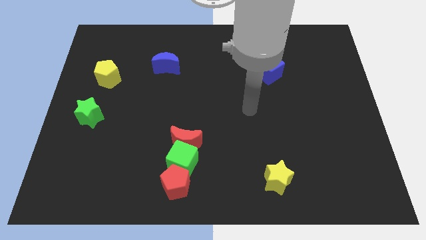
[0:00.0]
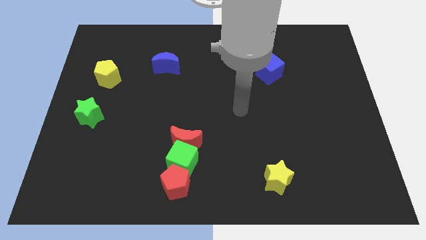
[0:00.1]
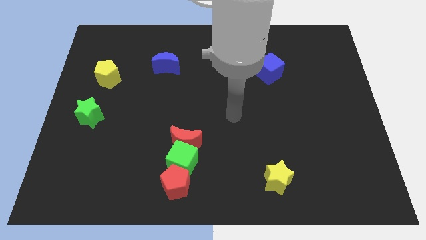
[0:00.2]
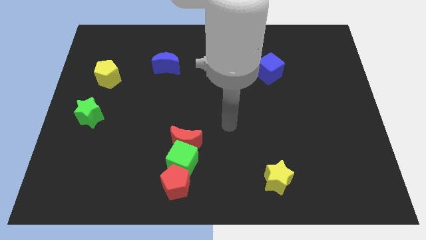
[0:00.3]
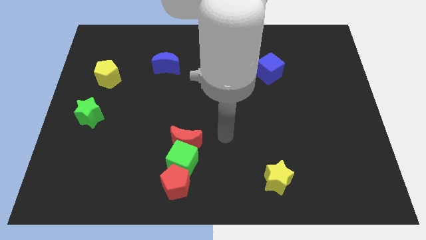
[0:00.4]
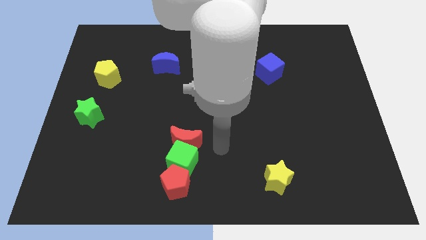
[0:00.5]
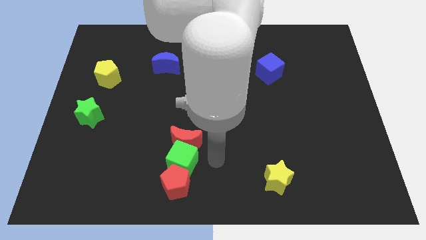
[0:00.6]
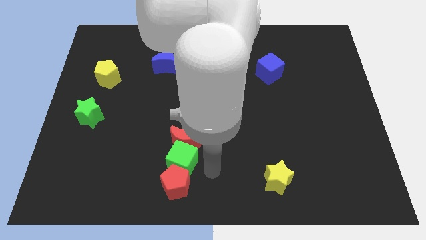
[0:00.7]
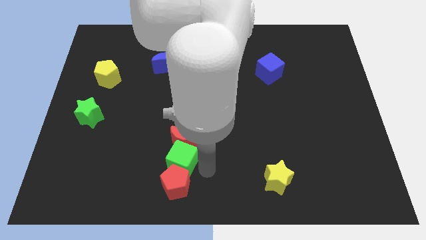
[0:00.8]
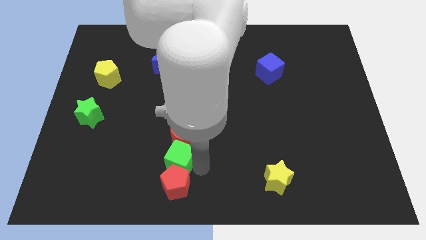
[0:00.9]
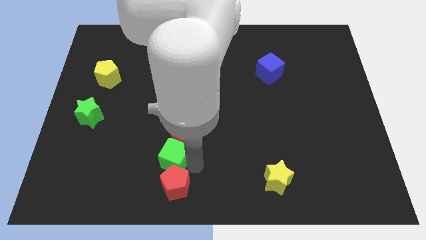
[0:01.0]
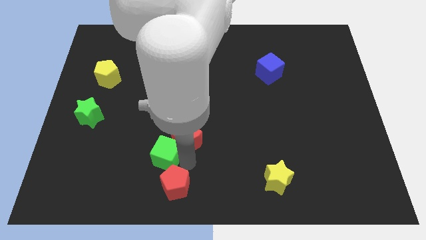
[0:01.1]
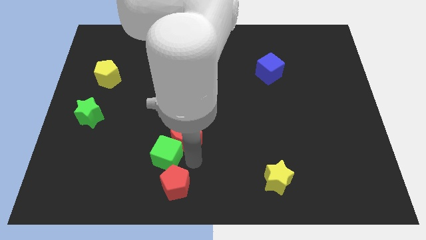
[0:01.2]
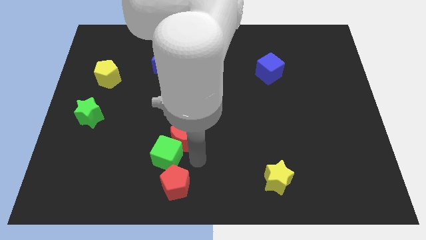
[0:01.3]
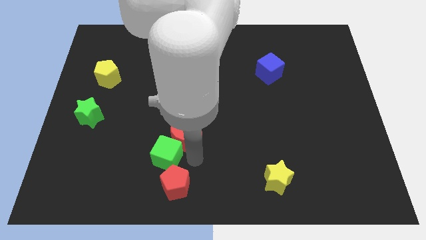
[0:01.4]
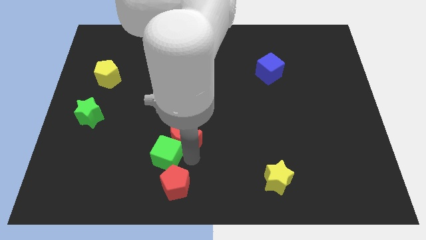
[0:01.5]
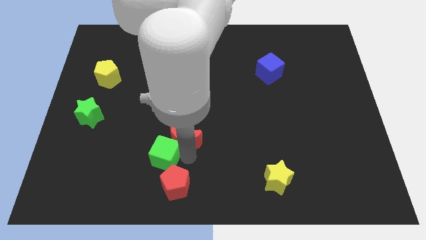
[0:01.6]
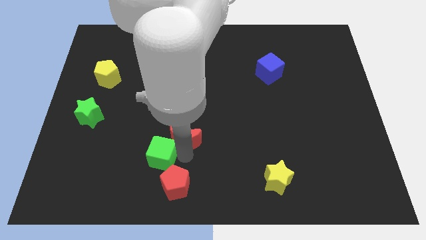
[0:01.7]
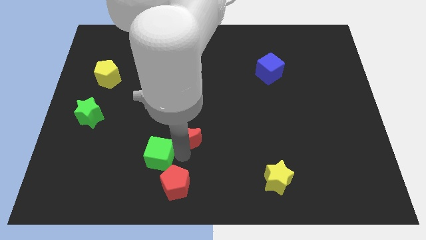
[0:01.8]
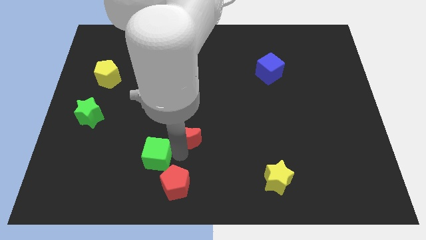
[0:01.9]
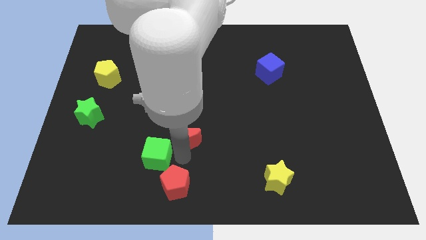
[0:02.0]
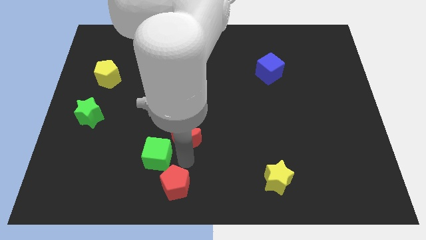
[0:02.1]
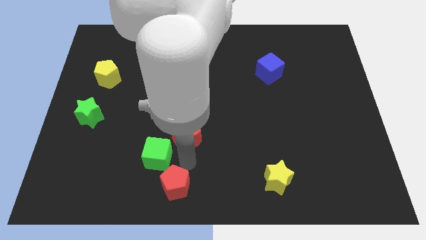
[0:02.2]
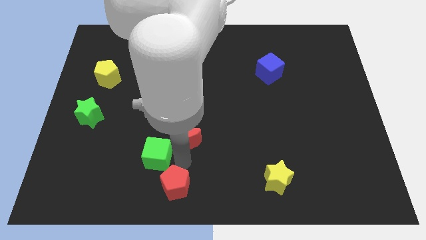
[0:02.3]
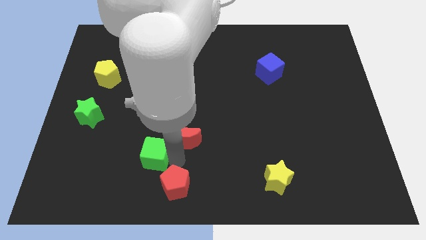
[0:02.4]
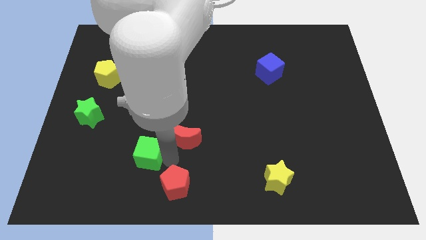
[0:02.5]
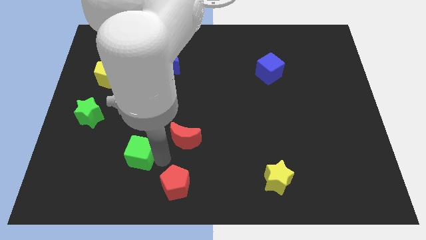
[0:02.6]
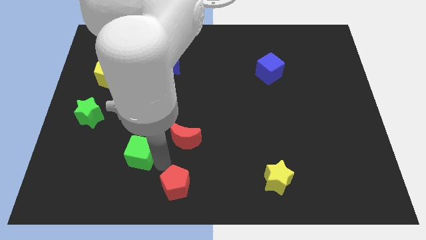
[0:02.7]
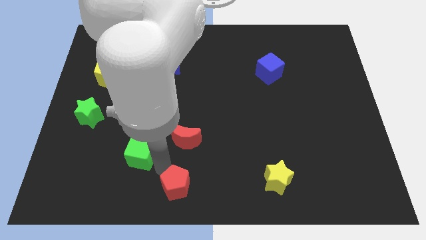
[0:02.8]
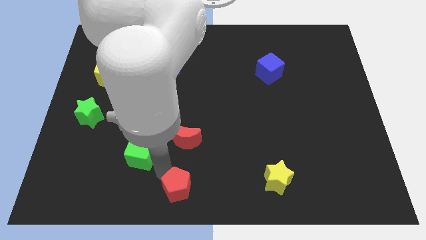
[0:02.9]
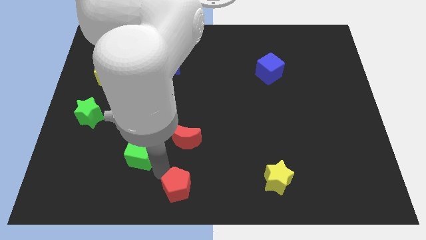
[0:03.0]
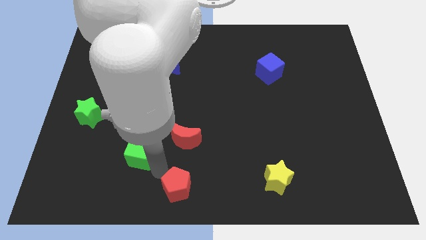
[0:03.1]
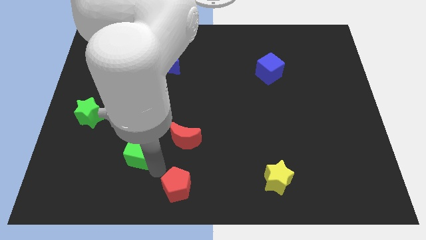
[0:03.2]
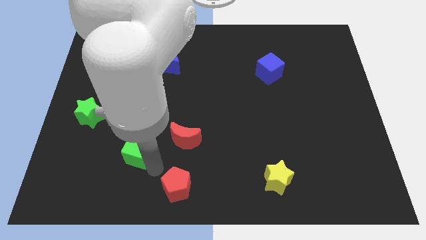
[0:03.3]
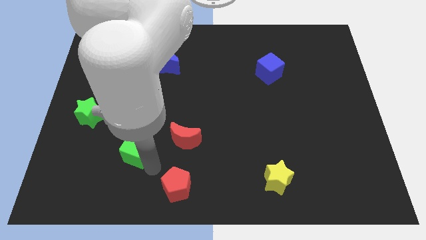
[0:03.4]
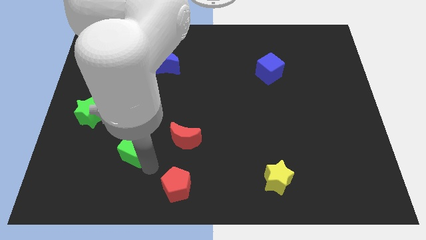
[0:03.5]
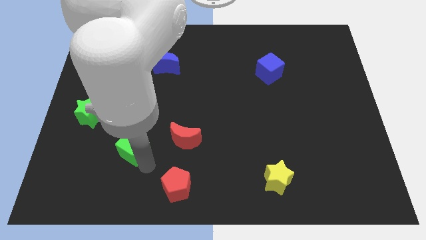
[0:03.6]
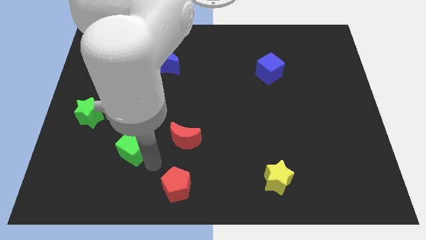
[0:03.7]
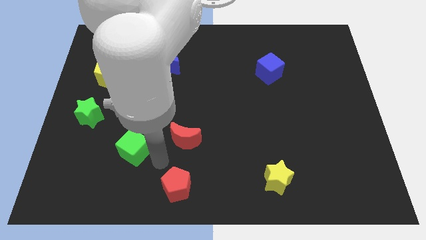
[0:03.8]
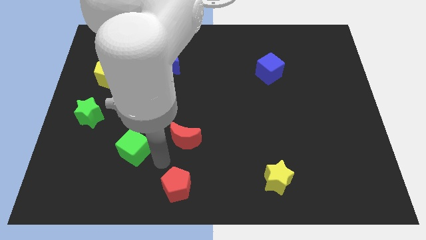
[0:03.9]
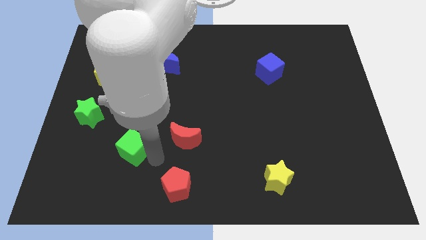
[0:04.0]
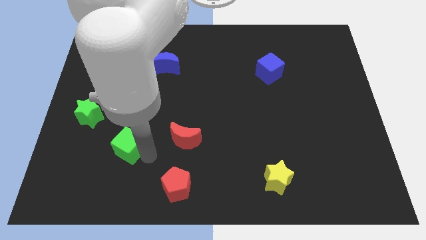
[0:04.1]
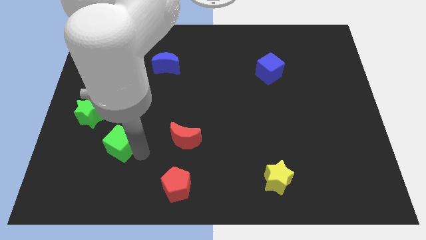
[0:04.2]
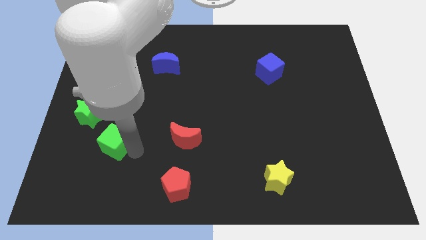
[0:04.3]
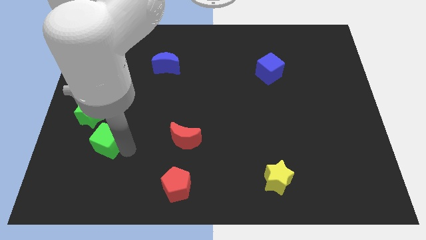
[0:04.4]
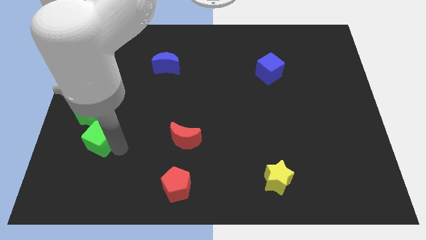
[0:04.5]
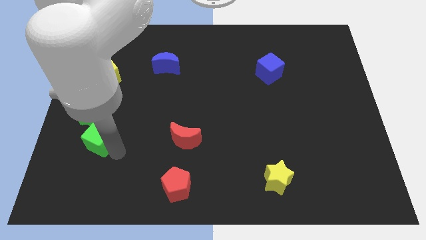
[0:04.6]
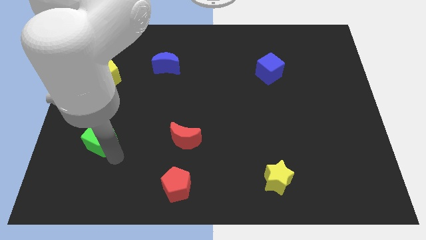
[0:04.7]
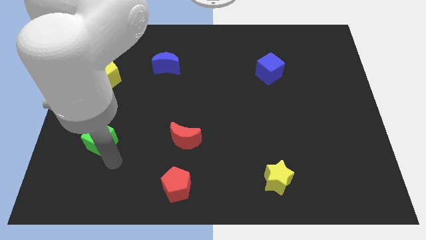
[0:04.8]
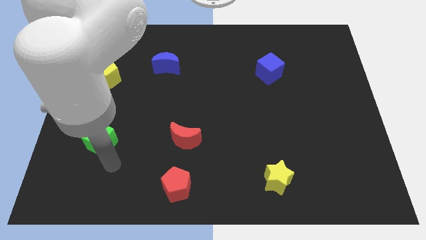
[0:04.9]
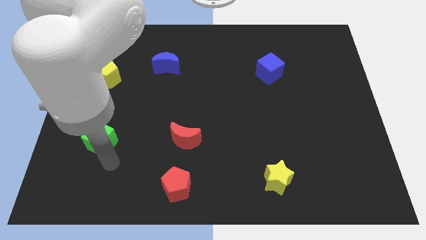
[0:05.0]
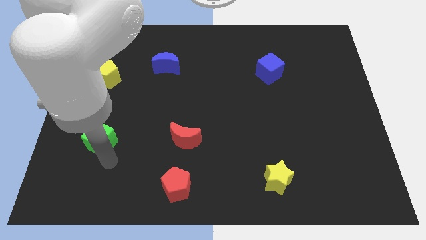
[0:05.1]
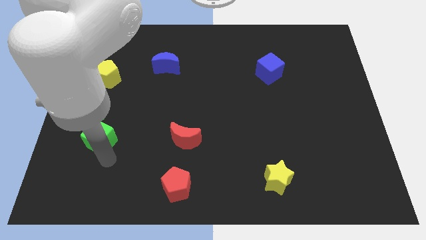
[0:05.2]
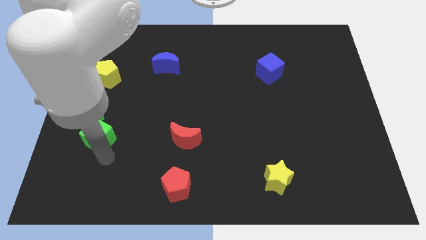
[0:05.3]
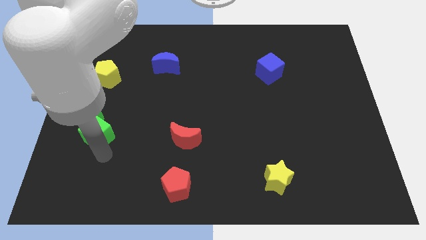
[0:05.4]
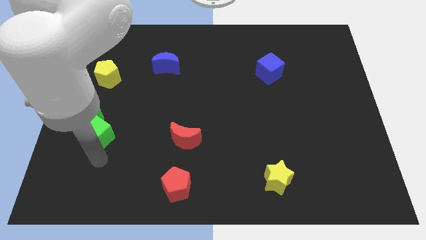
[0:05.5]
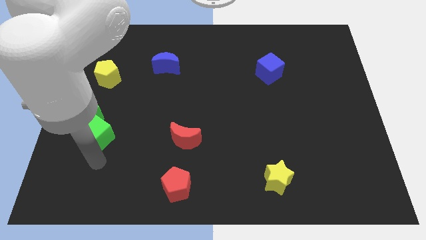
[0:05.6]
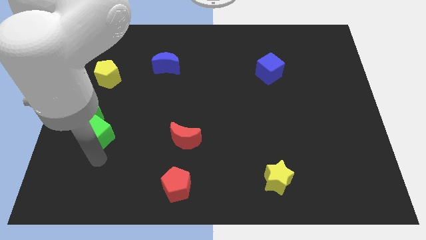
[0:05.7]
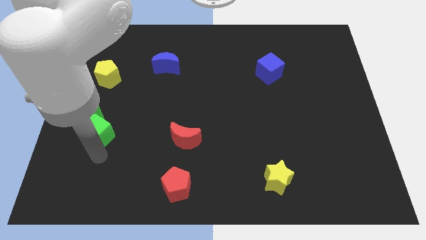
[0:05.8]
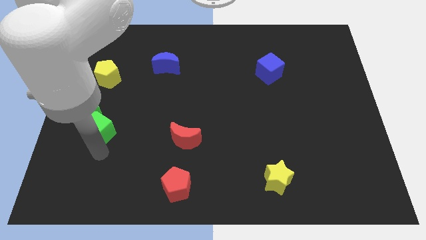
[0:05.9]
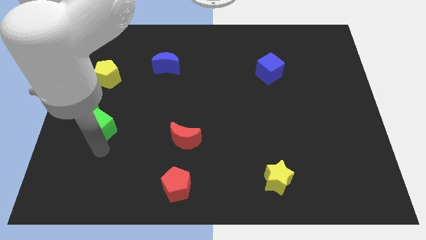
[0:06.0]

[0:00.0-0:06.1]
put the green cube to the bottom of the yellow pentagon

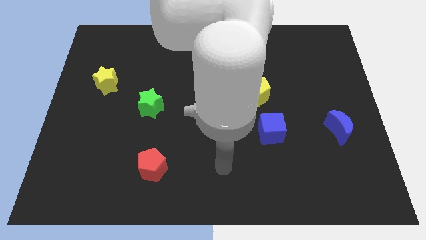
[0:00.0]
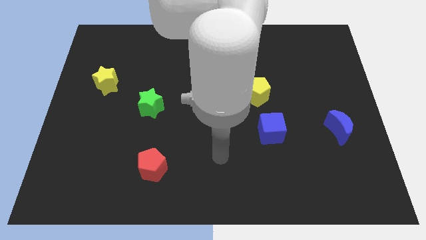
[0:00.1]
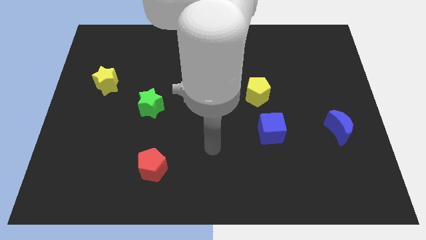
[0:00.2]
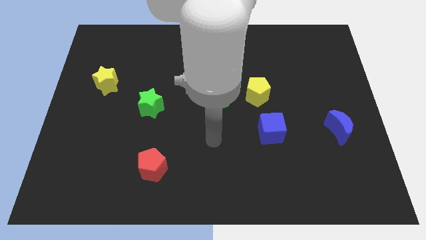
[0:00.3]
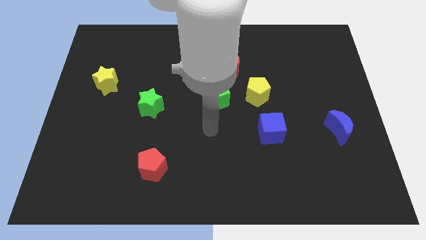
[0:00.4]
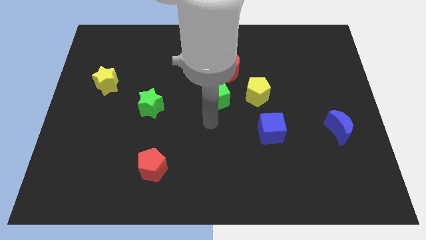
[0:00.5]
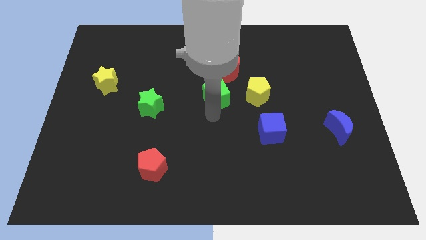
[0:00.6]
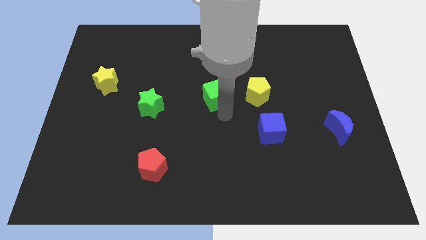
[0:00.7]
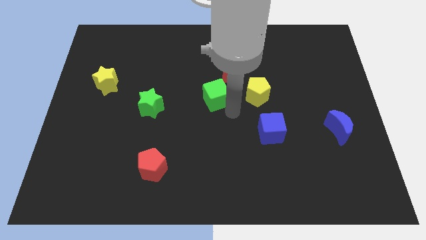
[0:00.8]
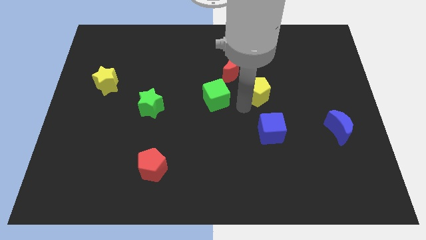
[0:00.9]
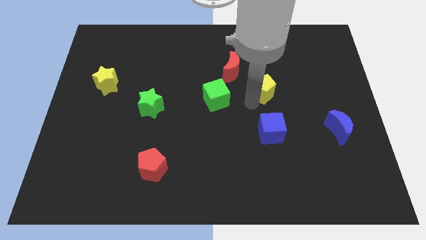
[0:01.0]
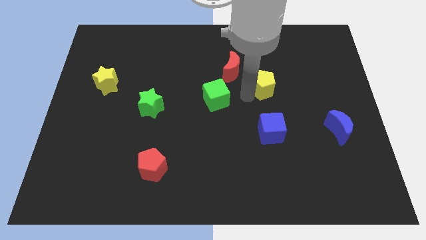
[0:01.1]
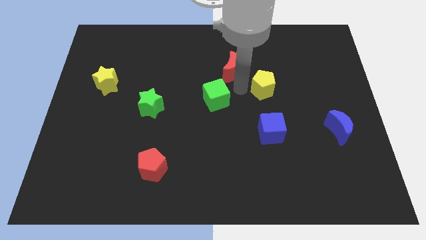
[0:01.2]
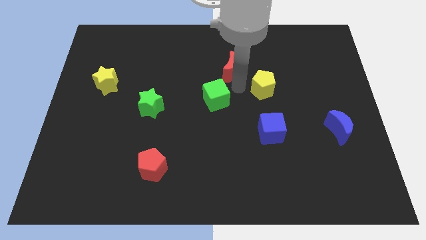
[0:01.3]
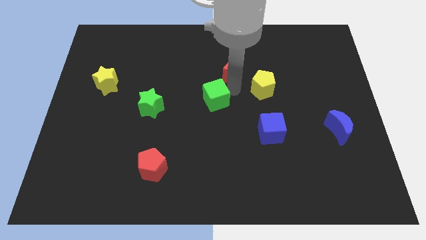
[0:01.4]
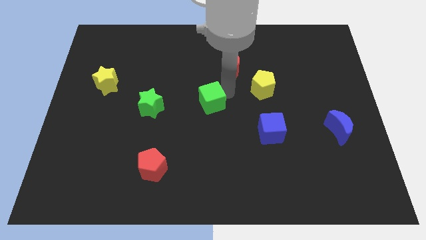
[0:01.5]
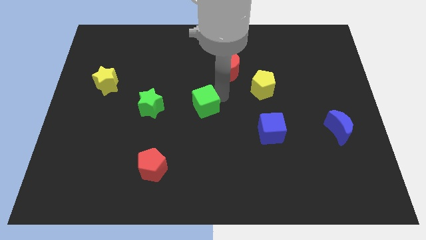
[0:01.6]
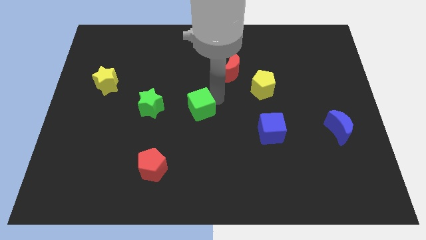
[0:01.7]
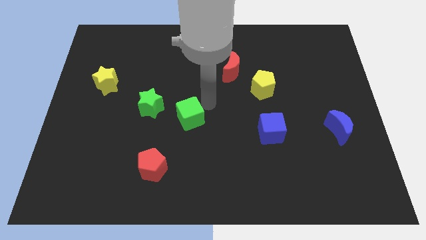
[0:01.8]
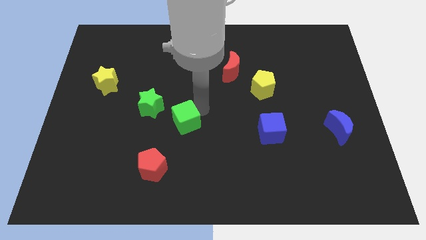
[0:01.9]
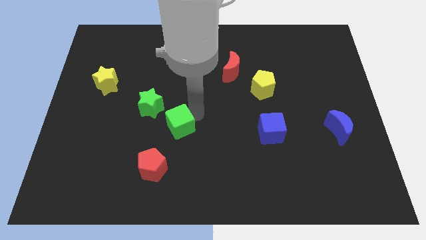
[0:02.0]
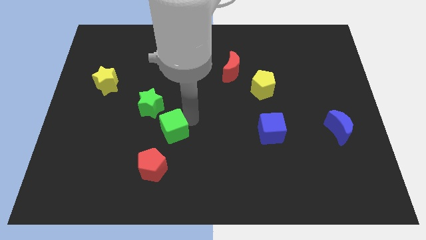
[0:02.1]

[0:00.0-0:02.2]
push the green cube to the top of the red pentagon
